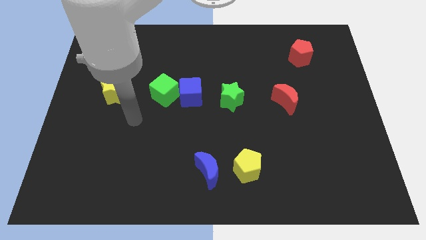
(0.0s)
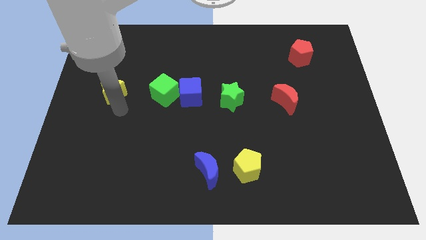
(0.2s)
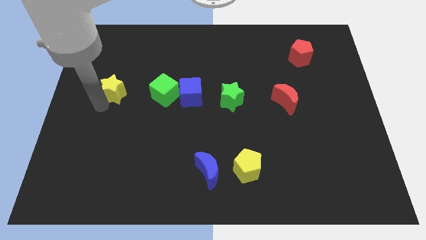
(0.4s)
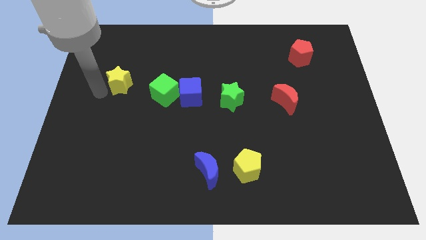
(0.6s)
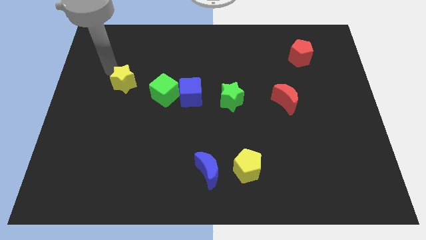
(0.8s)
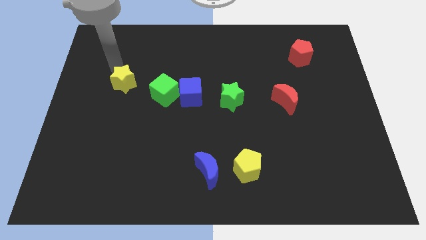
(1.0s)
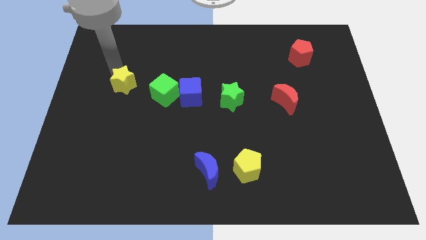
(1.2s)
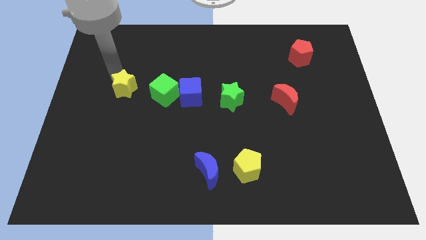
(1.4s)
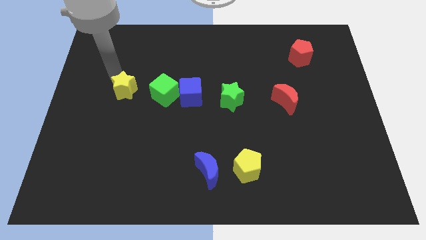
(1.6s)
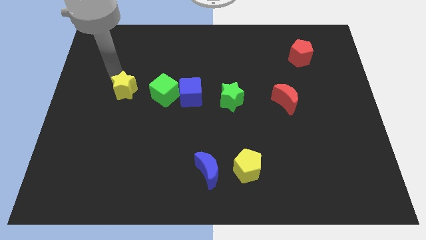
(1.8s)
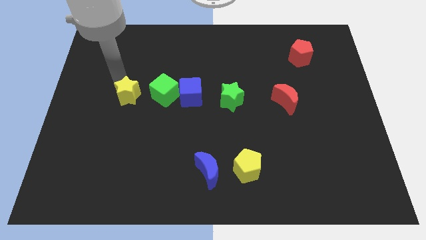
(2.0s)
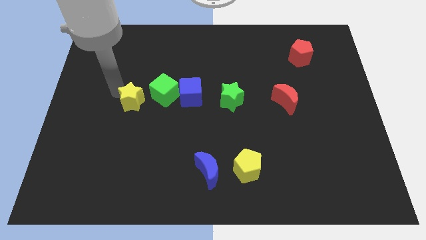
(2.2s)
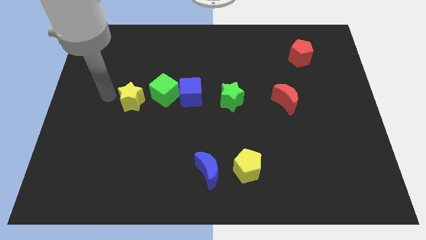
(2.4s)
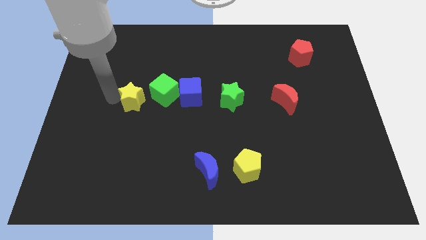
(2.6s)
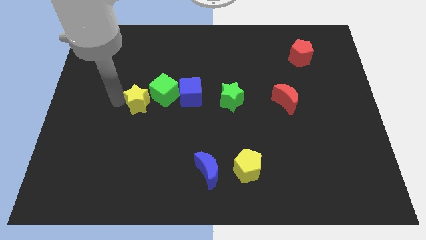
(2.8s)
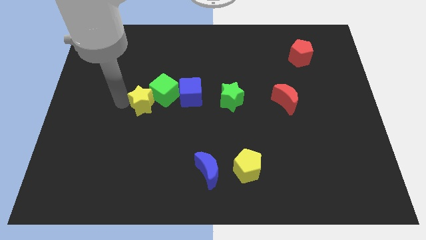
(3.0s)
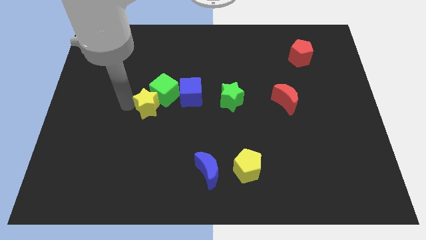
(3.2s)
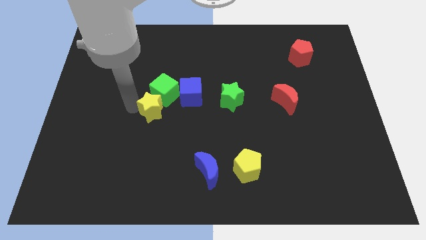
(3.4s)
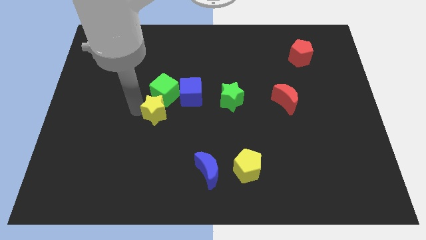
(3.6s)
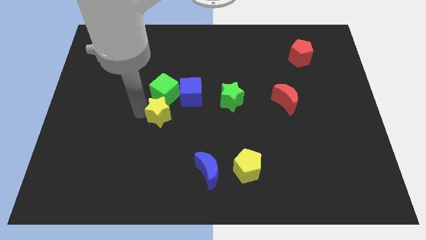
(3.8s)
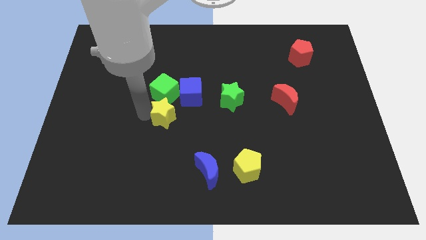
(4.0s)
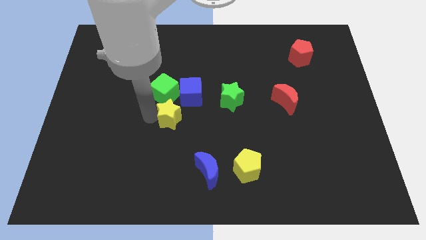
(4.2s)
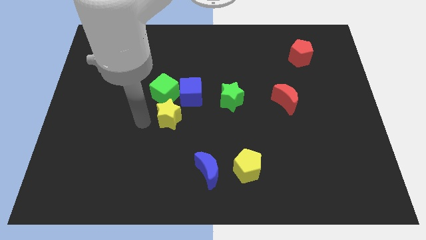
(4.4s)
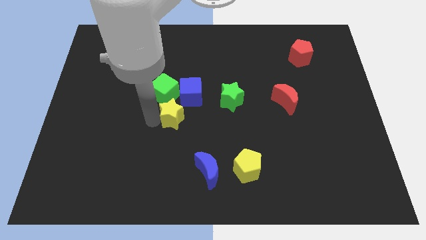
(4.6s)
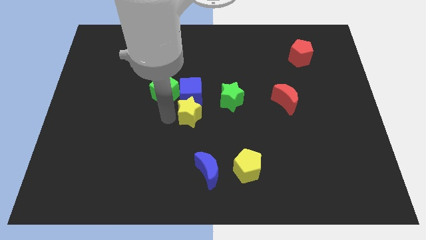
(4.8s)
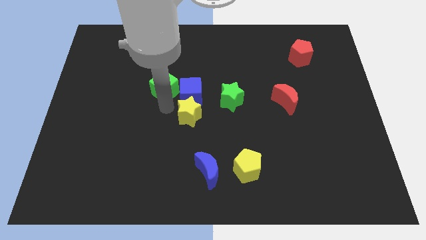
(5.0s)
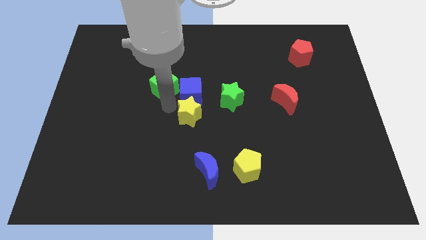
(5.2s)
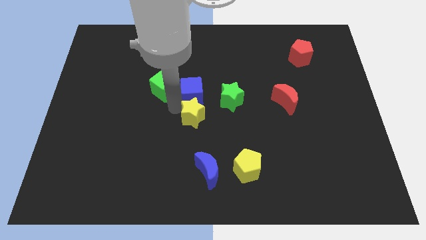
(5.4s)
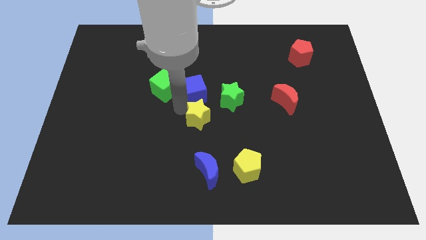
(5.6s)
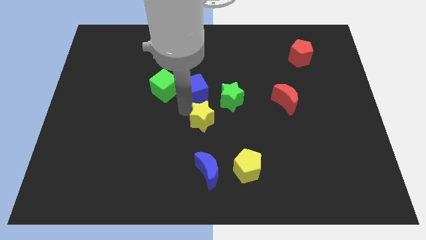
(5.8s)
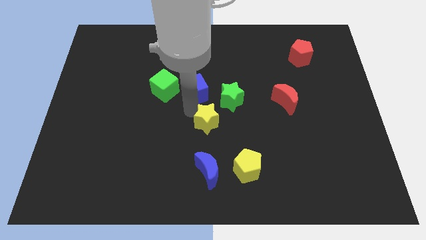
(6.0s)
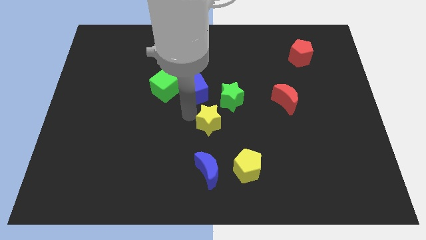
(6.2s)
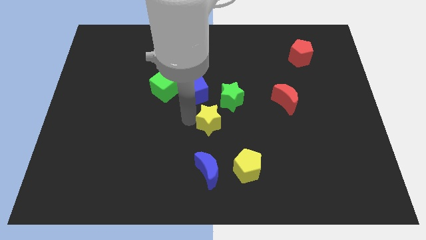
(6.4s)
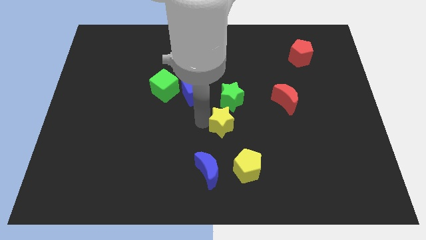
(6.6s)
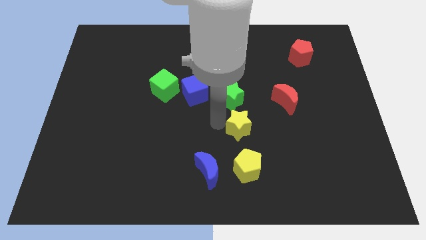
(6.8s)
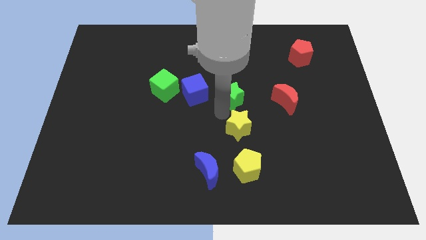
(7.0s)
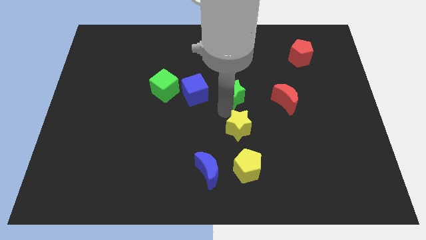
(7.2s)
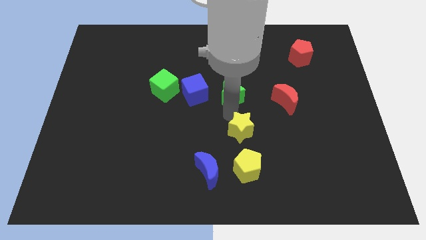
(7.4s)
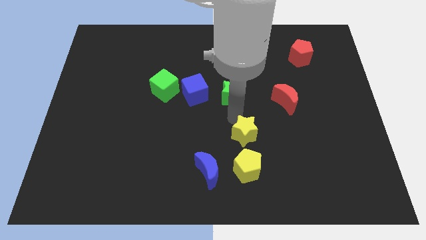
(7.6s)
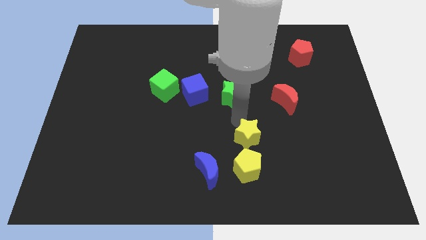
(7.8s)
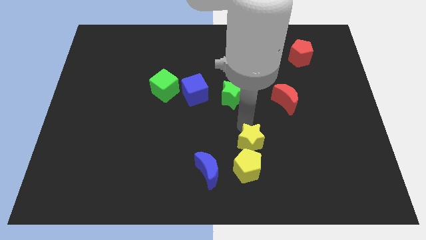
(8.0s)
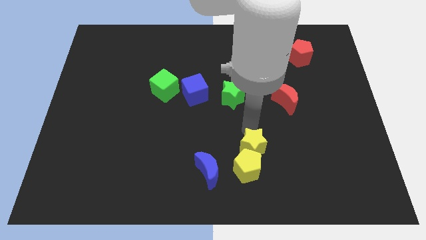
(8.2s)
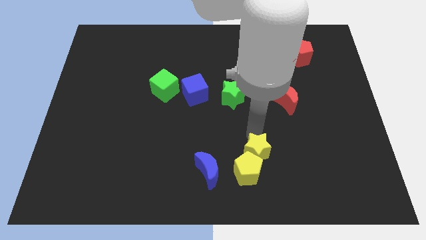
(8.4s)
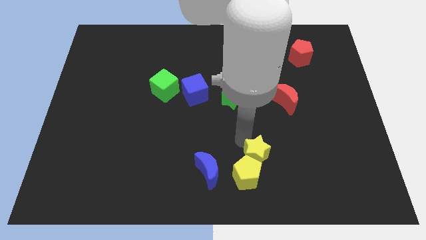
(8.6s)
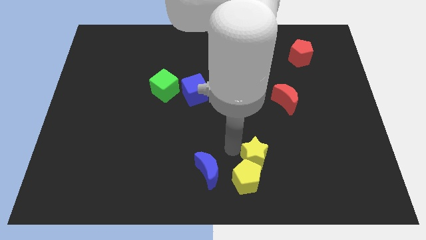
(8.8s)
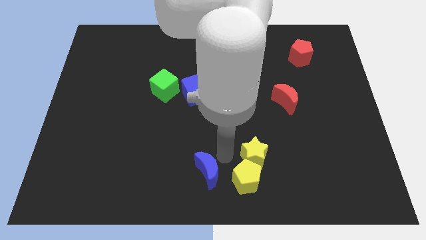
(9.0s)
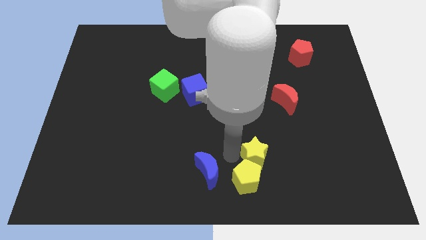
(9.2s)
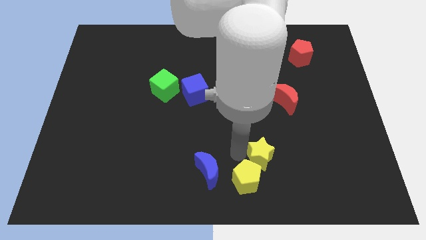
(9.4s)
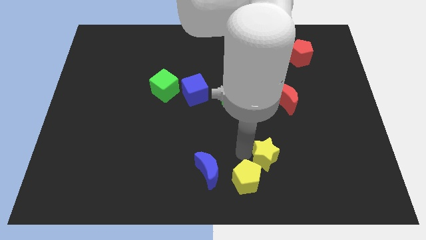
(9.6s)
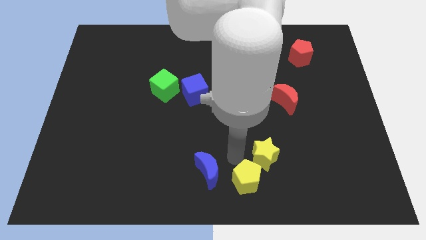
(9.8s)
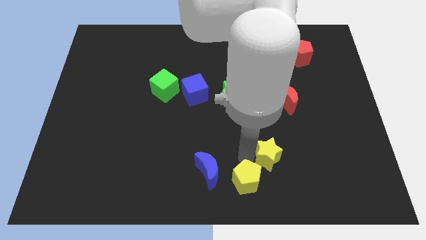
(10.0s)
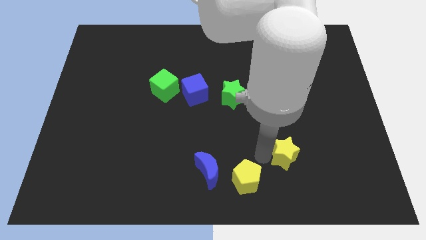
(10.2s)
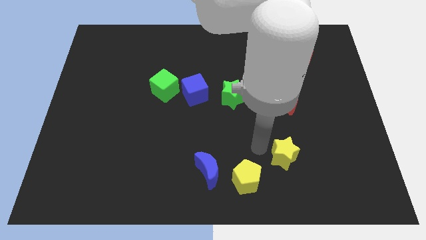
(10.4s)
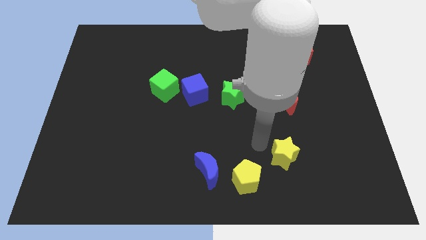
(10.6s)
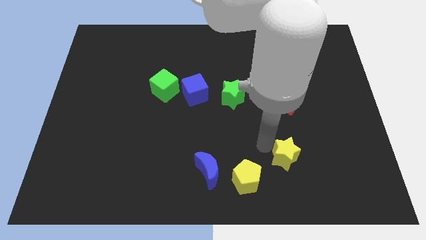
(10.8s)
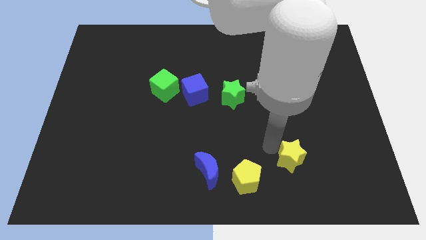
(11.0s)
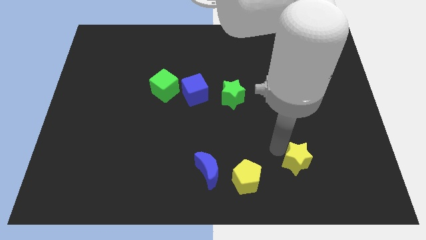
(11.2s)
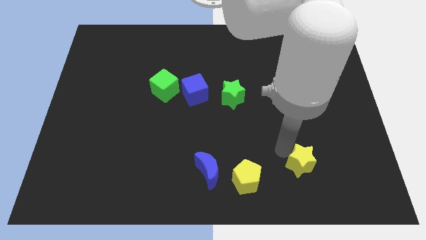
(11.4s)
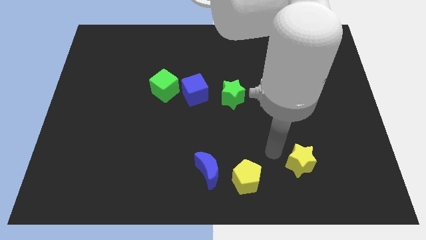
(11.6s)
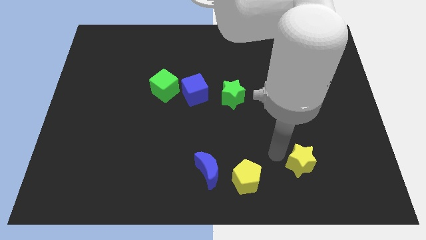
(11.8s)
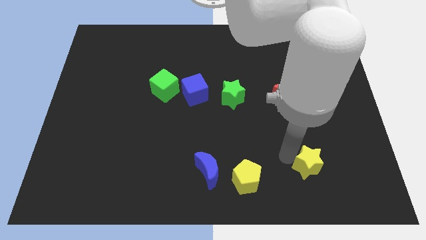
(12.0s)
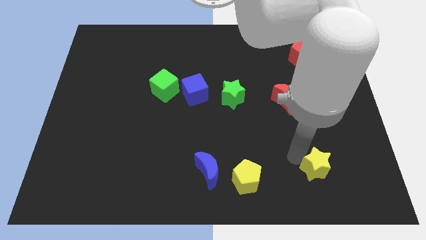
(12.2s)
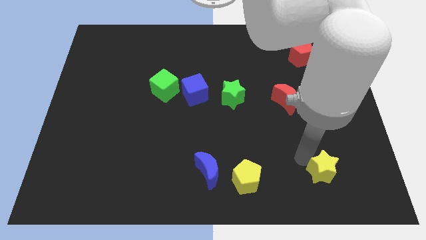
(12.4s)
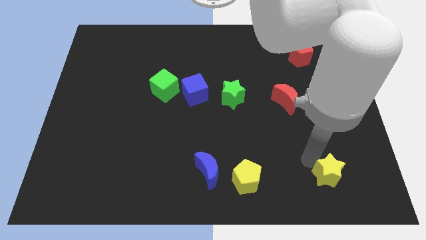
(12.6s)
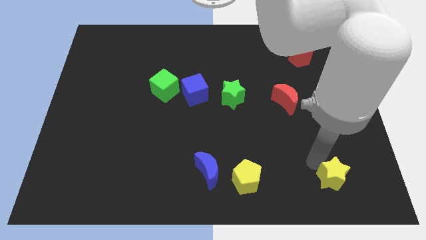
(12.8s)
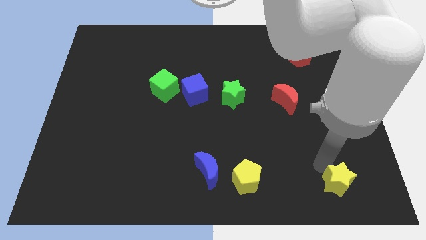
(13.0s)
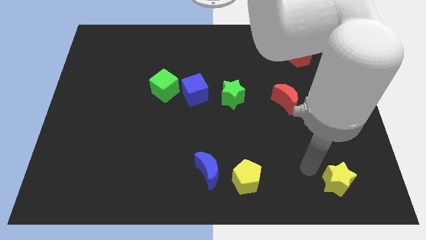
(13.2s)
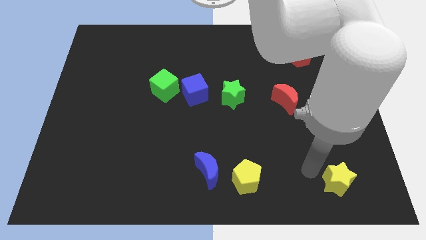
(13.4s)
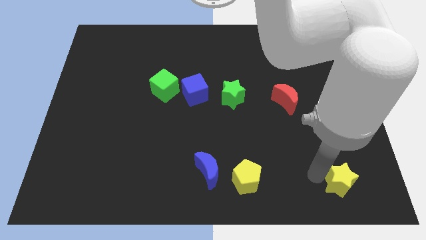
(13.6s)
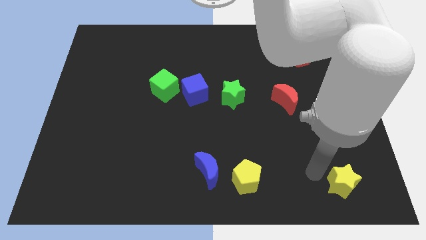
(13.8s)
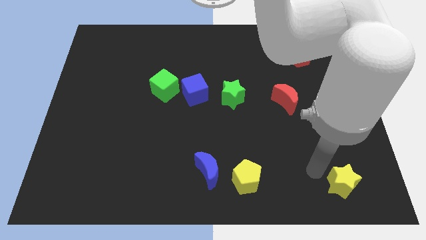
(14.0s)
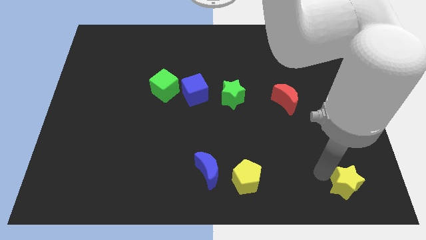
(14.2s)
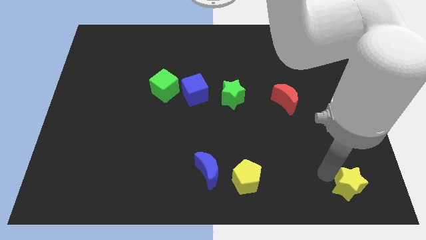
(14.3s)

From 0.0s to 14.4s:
move the yellow star to the lower right corner
